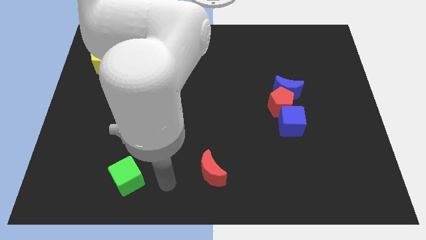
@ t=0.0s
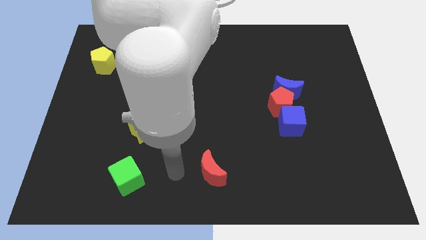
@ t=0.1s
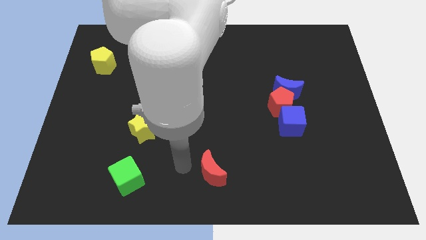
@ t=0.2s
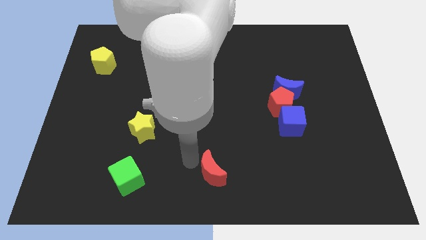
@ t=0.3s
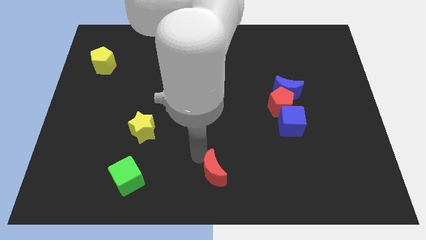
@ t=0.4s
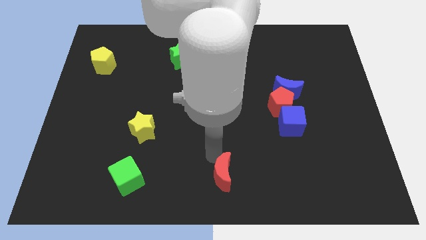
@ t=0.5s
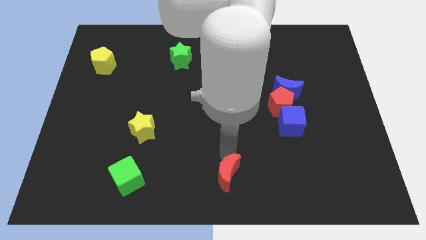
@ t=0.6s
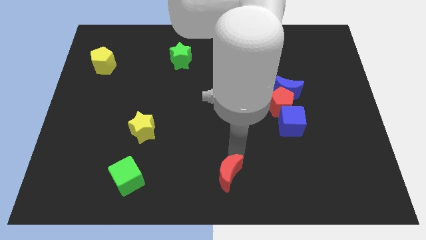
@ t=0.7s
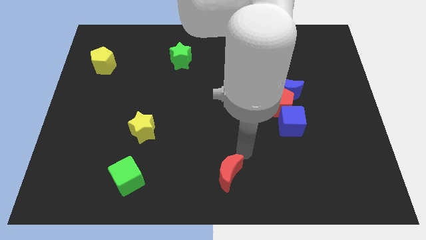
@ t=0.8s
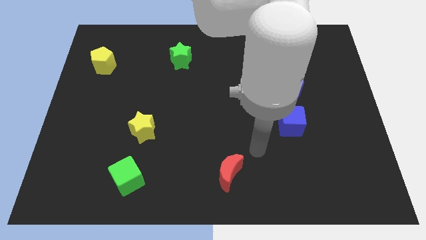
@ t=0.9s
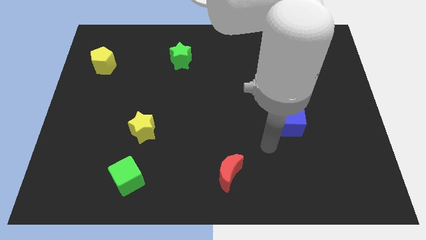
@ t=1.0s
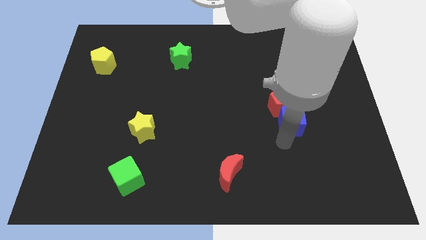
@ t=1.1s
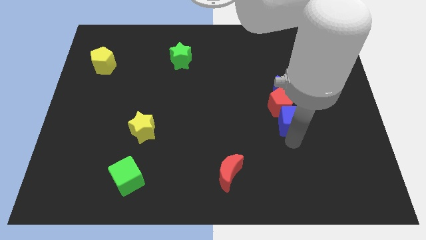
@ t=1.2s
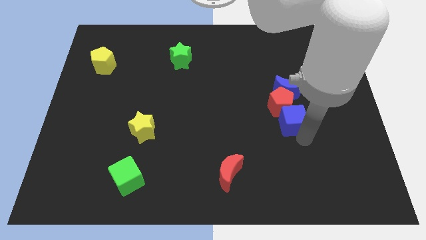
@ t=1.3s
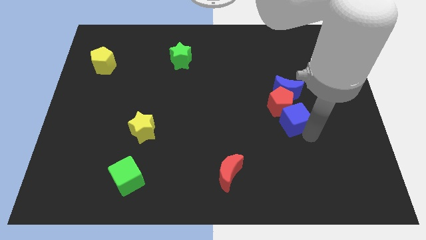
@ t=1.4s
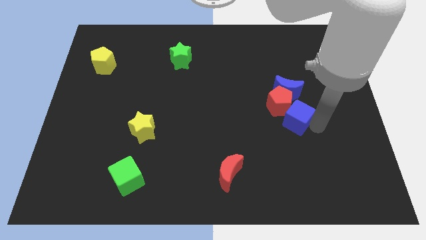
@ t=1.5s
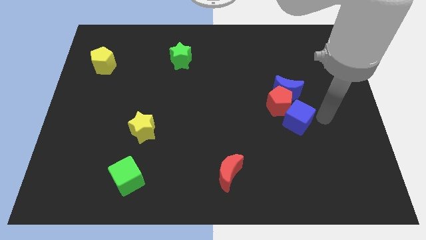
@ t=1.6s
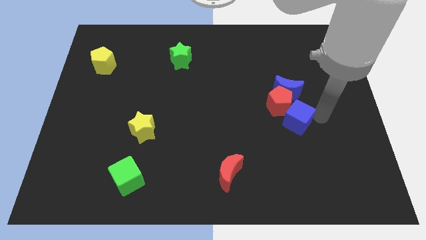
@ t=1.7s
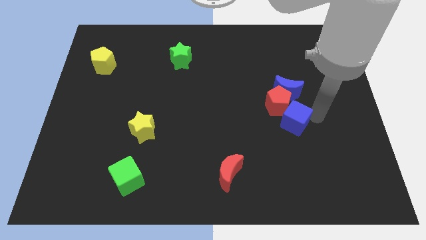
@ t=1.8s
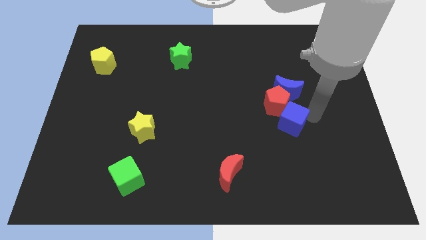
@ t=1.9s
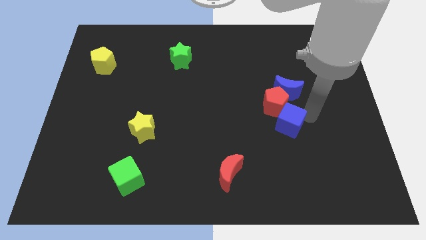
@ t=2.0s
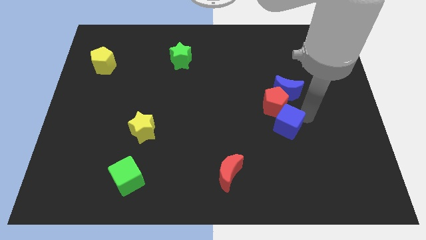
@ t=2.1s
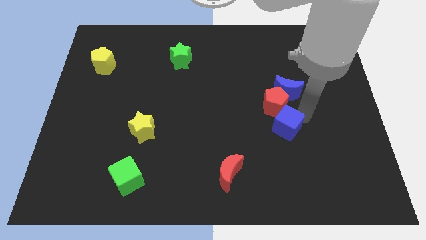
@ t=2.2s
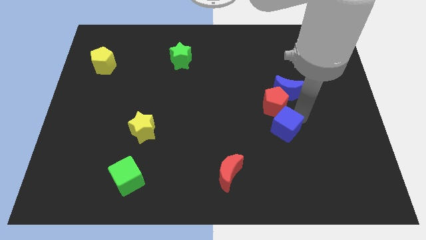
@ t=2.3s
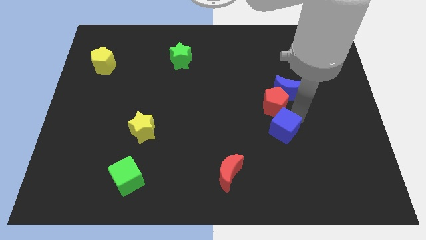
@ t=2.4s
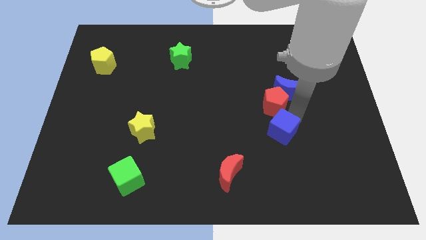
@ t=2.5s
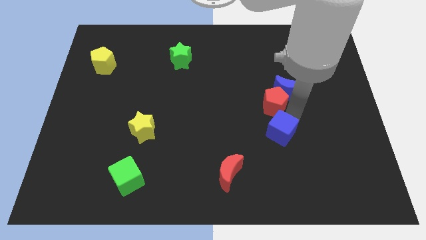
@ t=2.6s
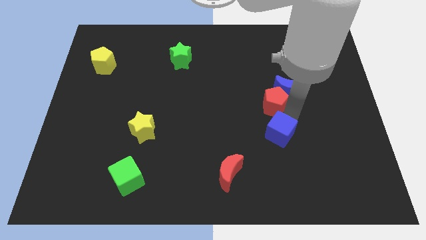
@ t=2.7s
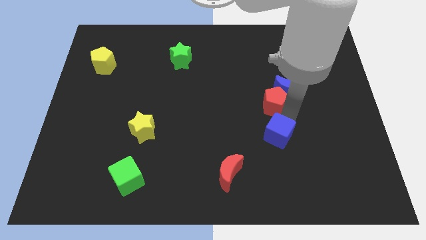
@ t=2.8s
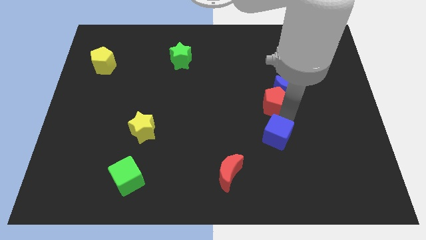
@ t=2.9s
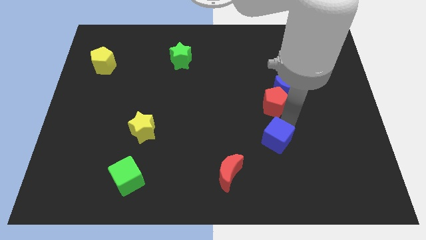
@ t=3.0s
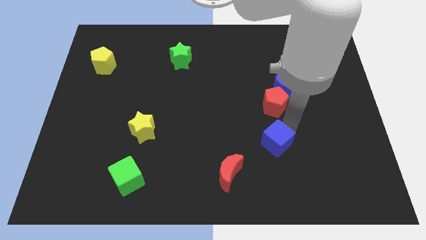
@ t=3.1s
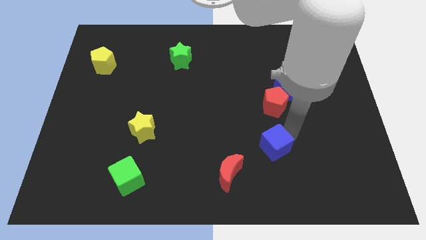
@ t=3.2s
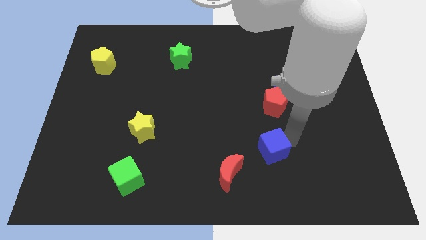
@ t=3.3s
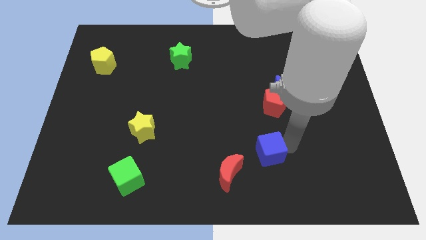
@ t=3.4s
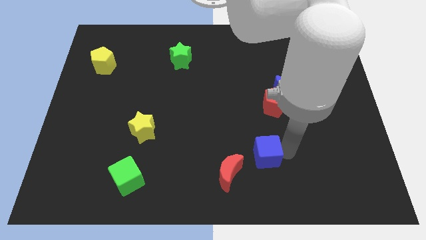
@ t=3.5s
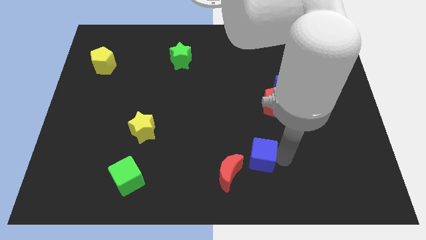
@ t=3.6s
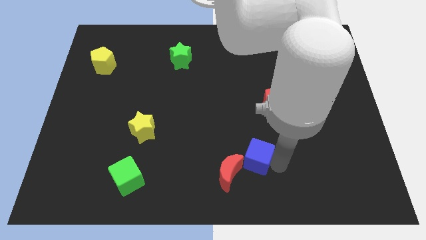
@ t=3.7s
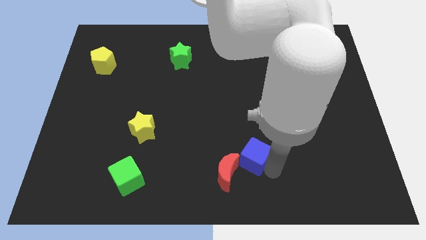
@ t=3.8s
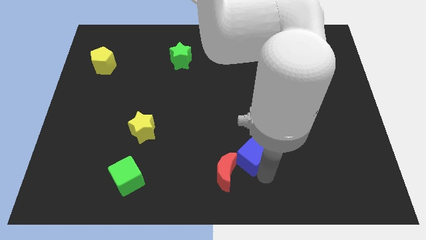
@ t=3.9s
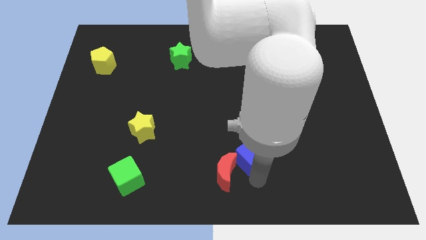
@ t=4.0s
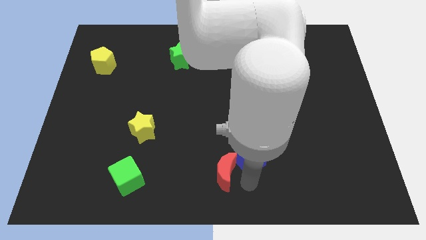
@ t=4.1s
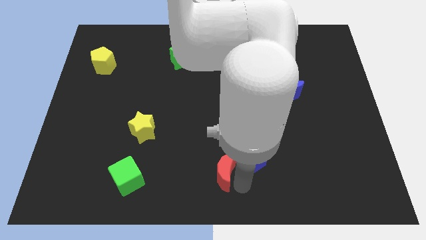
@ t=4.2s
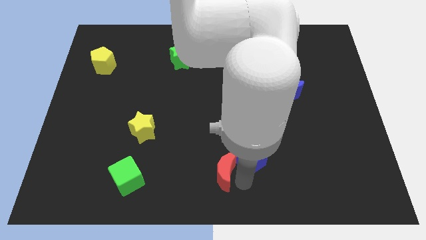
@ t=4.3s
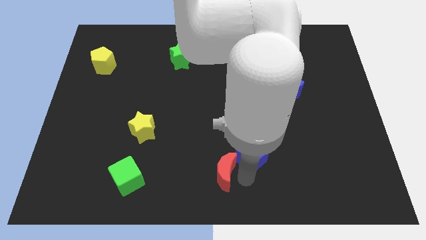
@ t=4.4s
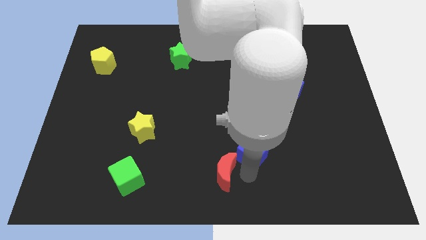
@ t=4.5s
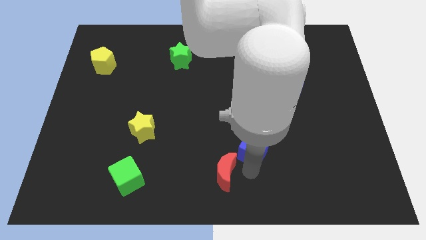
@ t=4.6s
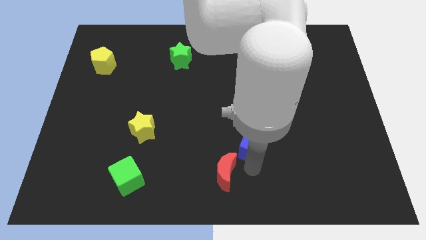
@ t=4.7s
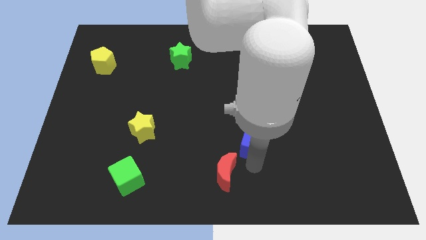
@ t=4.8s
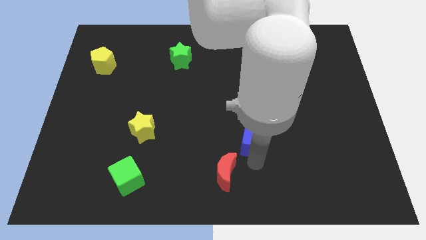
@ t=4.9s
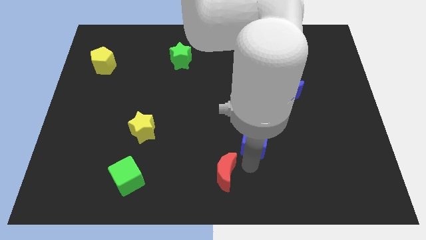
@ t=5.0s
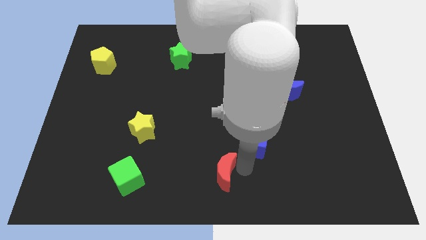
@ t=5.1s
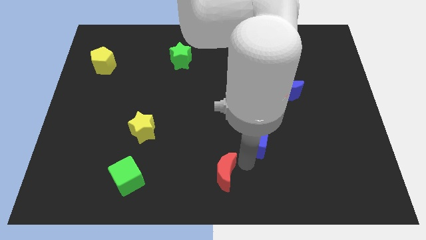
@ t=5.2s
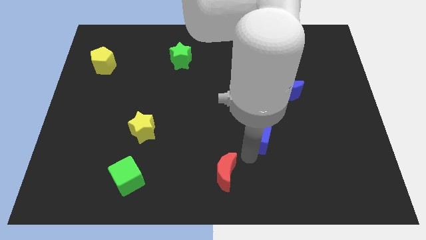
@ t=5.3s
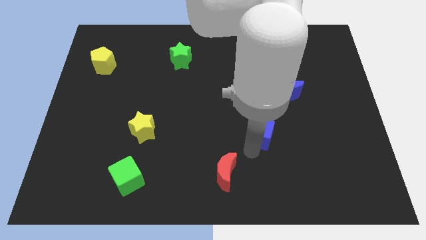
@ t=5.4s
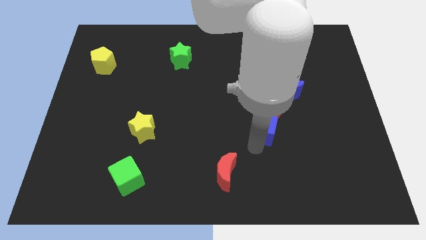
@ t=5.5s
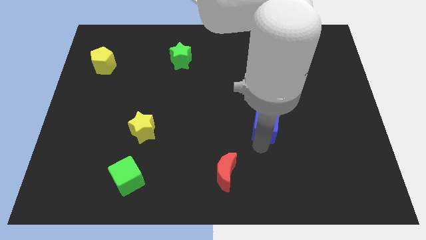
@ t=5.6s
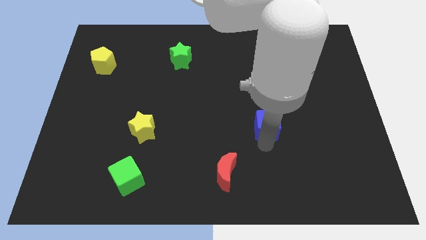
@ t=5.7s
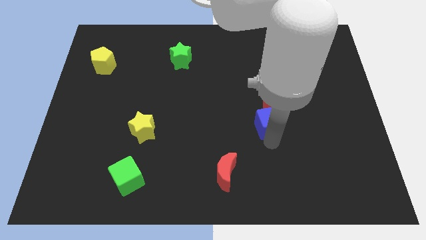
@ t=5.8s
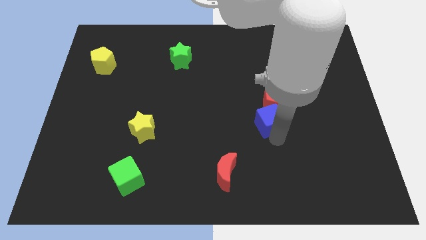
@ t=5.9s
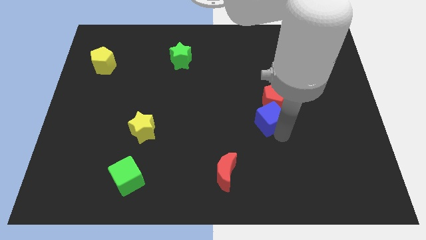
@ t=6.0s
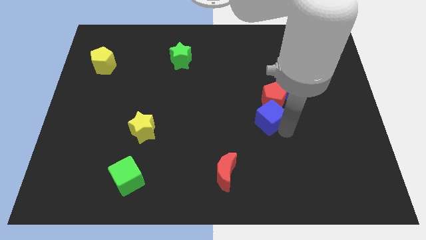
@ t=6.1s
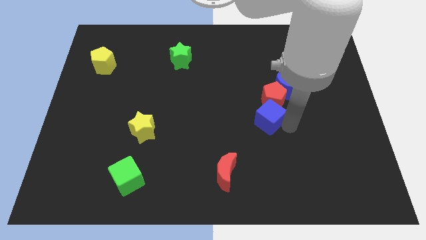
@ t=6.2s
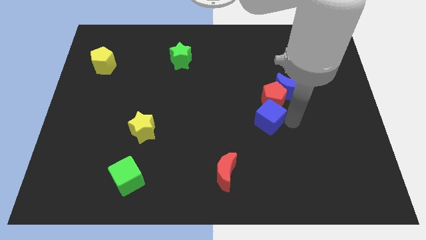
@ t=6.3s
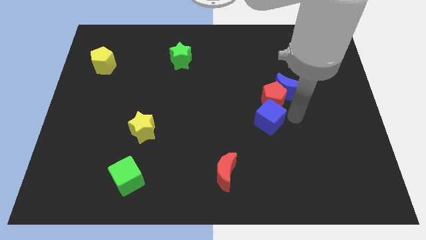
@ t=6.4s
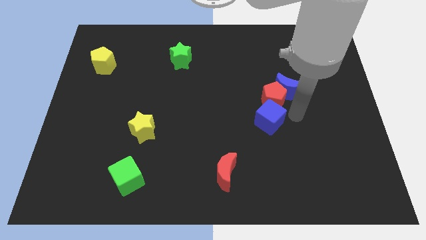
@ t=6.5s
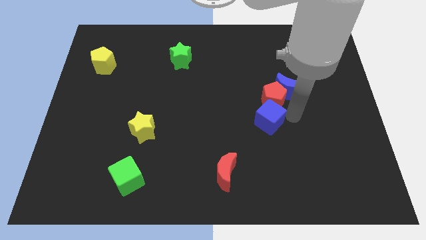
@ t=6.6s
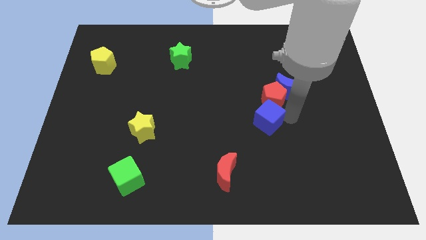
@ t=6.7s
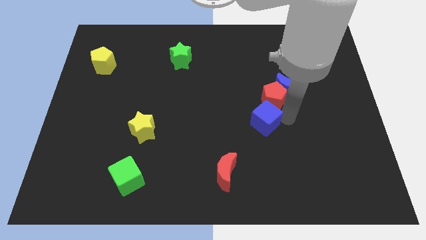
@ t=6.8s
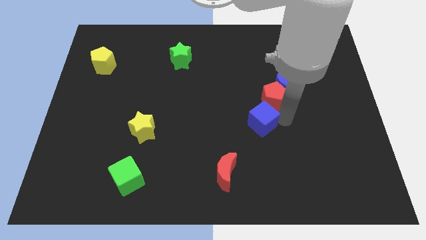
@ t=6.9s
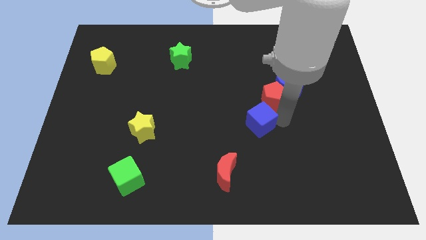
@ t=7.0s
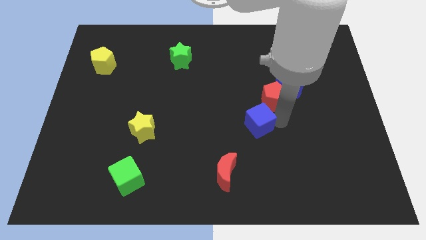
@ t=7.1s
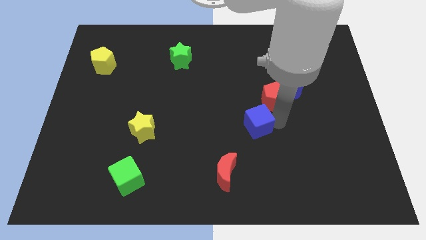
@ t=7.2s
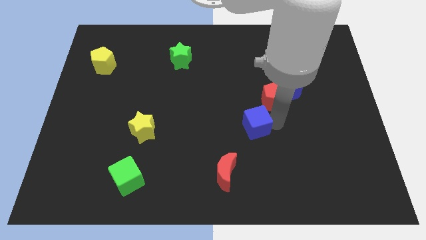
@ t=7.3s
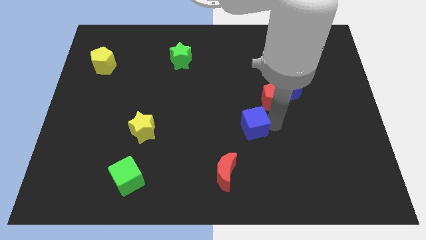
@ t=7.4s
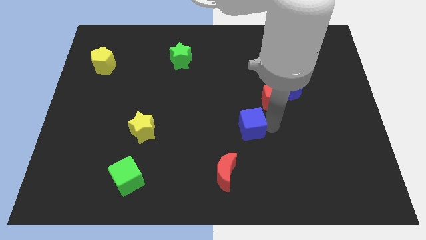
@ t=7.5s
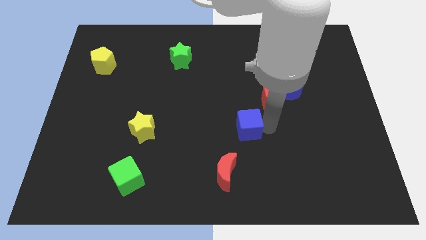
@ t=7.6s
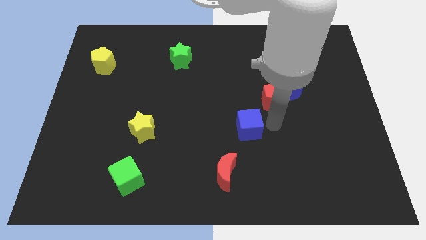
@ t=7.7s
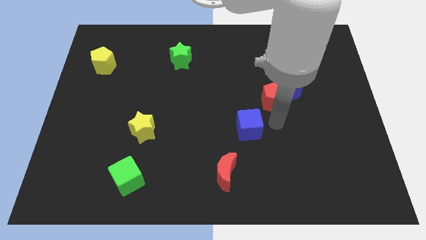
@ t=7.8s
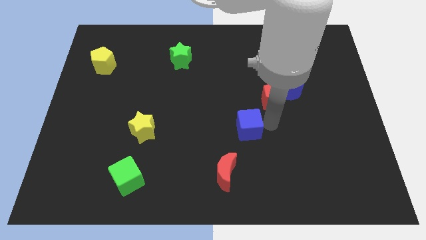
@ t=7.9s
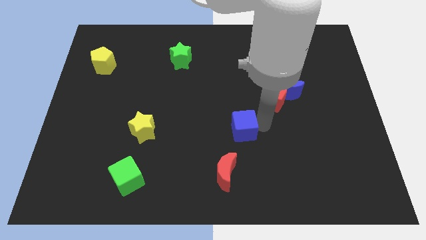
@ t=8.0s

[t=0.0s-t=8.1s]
put the blue cube to the top of the red moon
